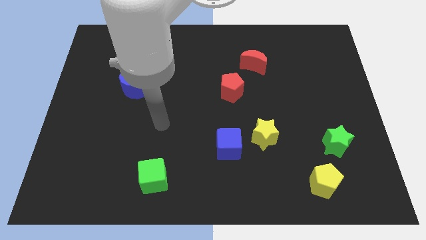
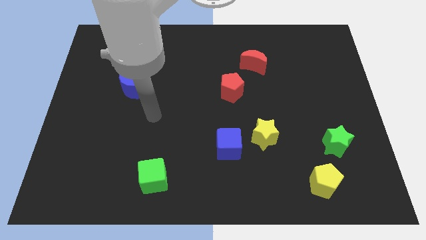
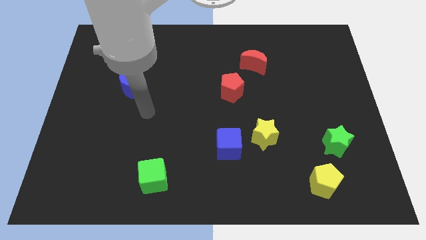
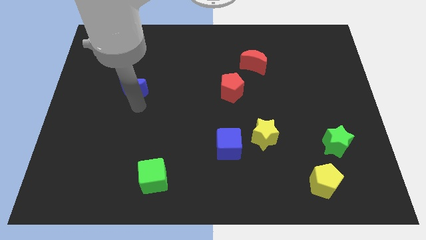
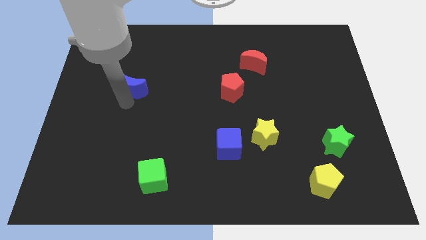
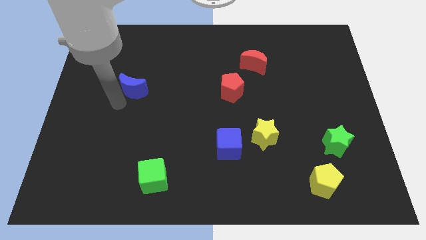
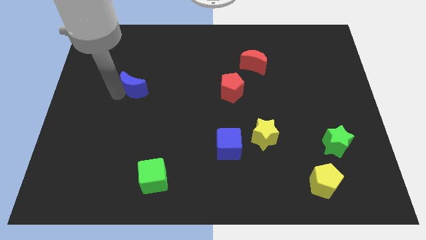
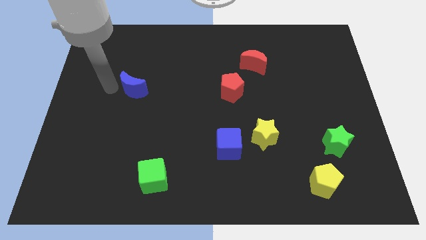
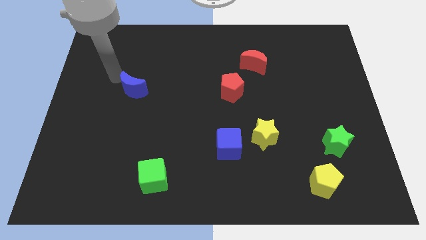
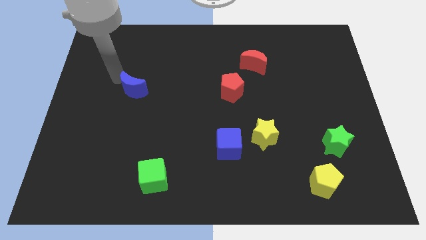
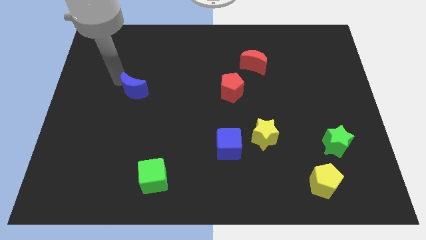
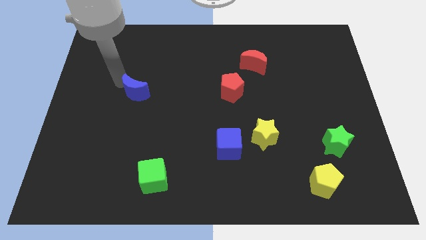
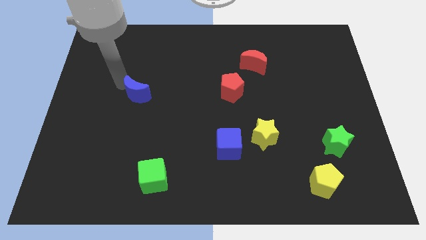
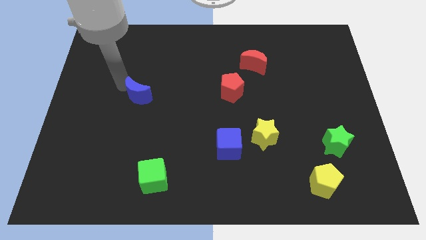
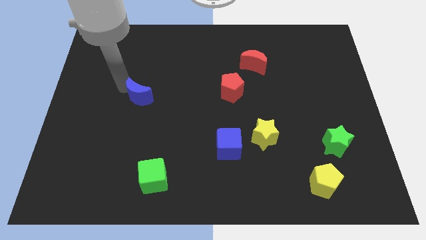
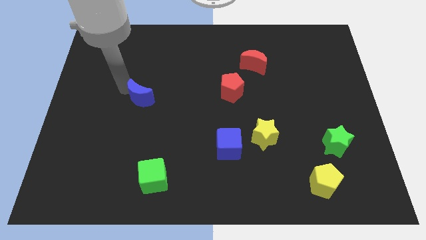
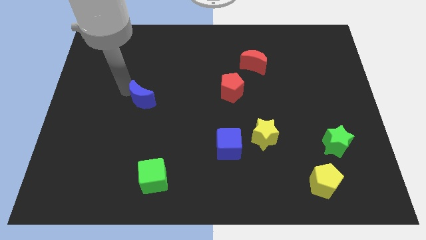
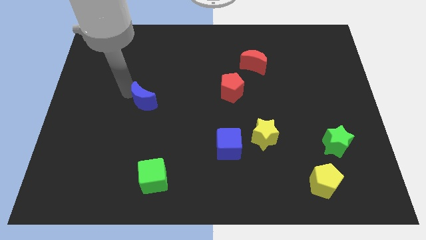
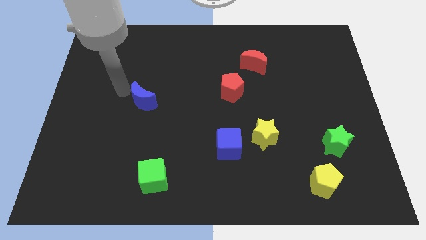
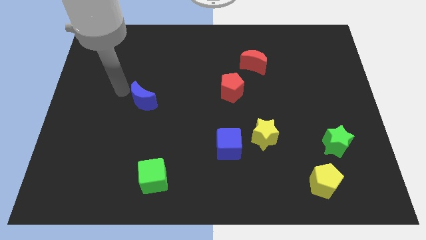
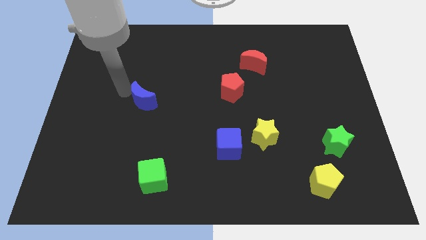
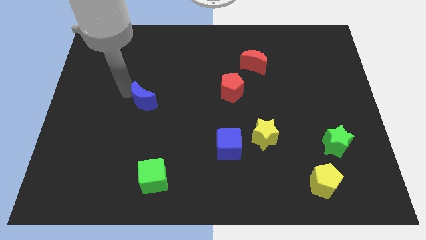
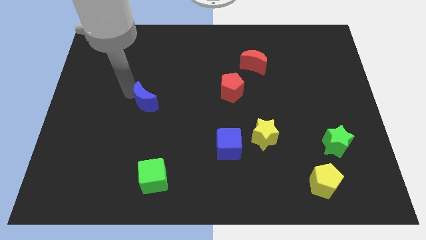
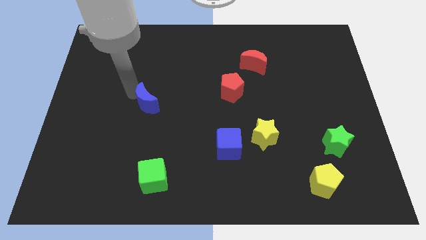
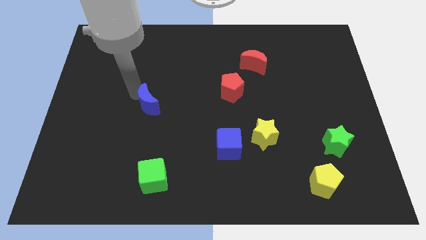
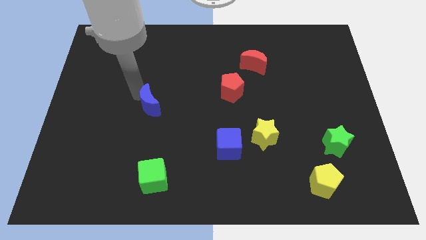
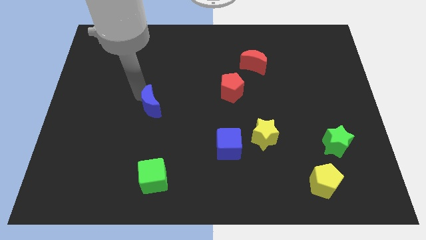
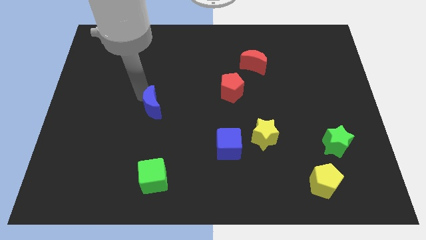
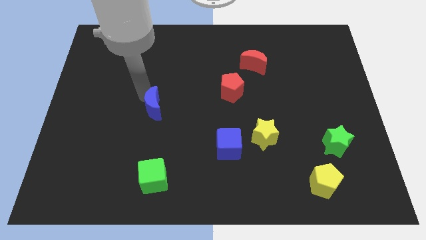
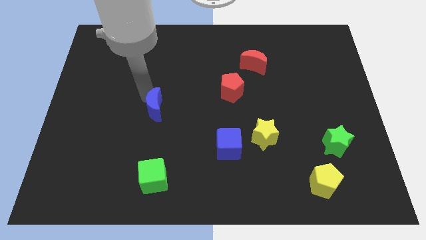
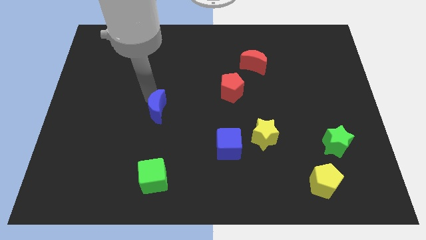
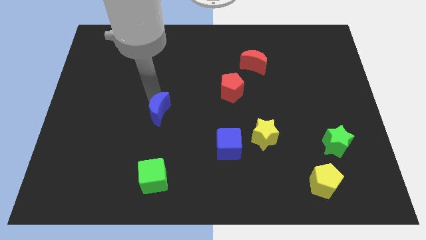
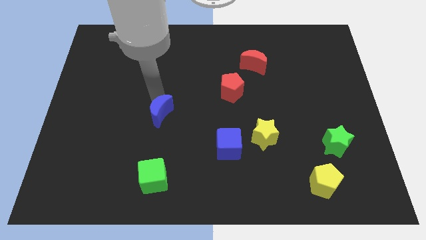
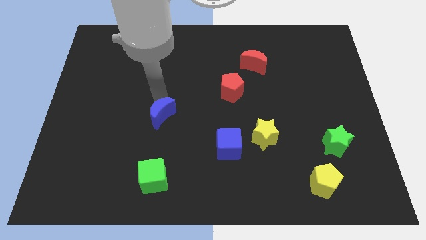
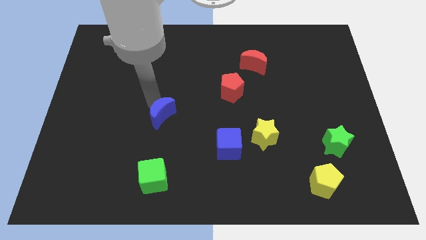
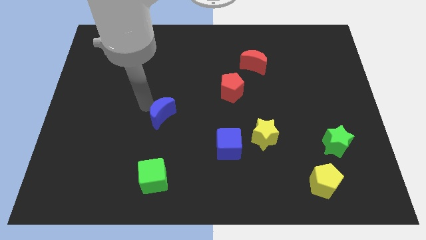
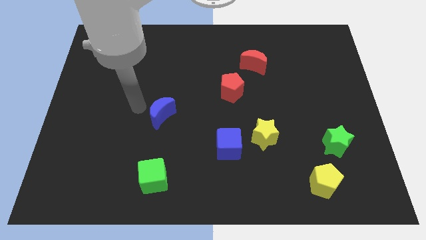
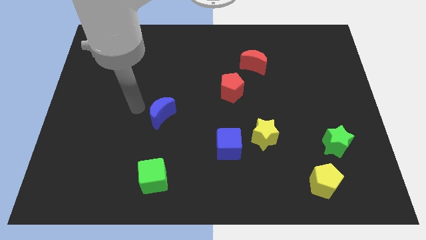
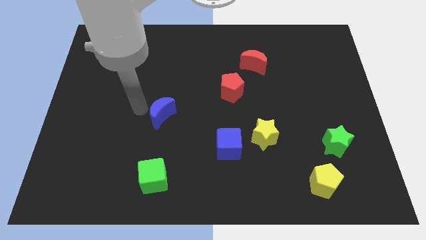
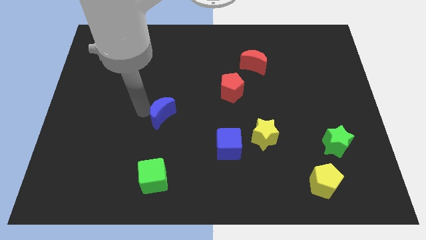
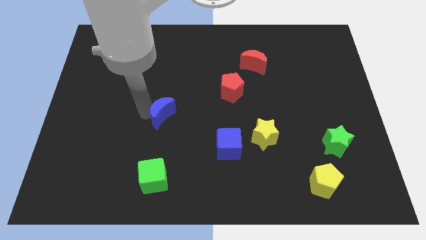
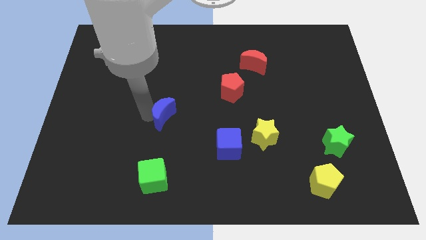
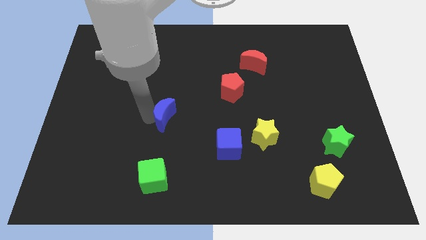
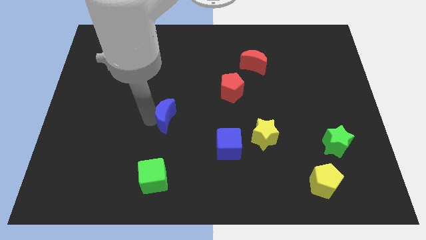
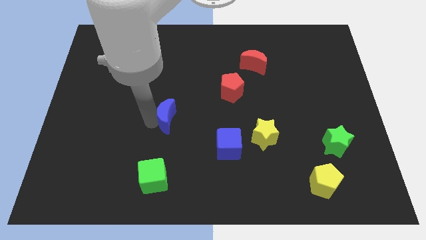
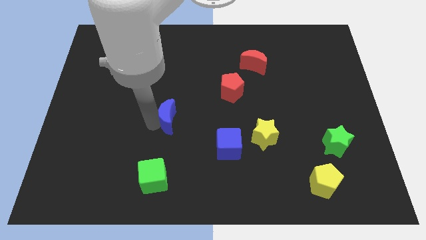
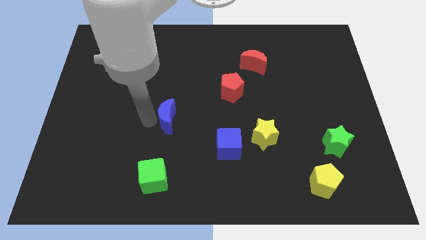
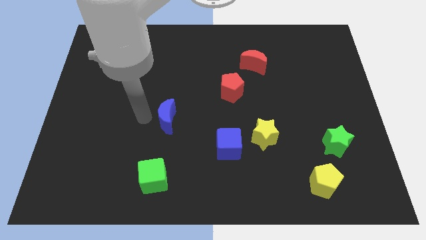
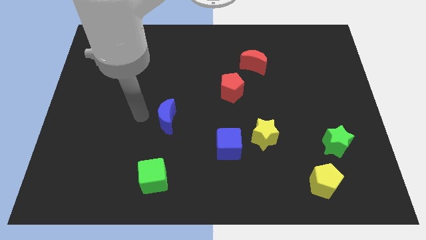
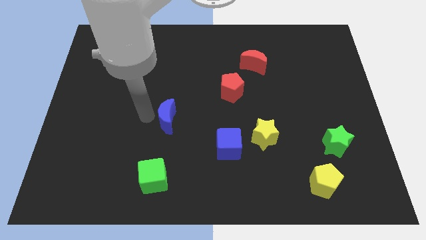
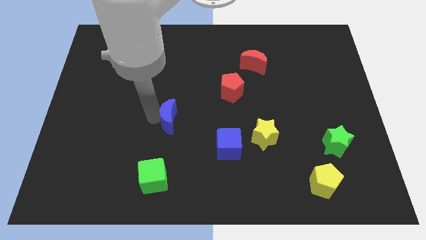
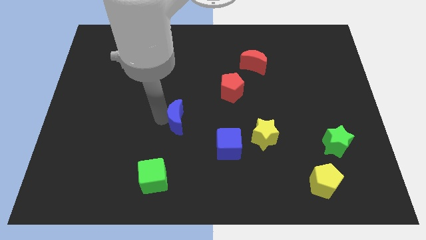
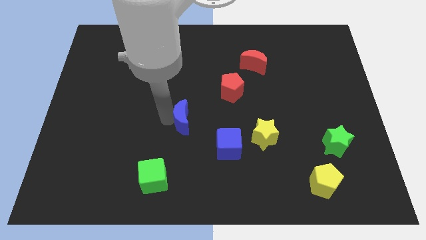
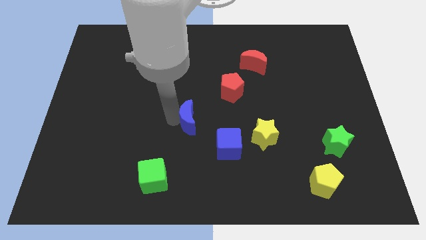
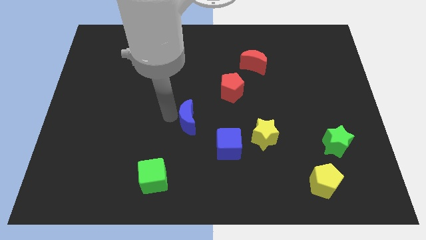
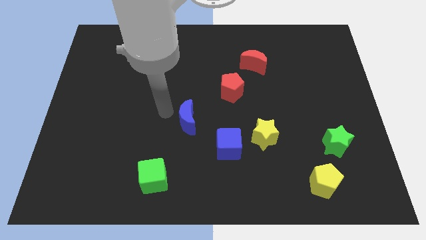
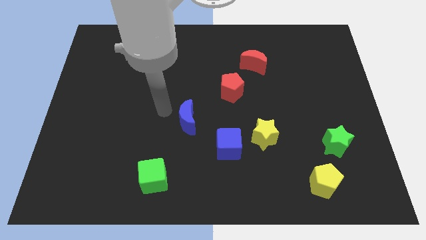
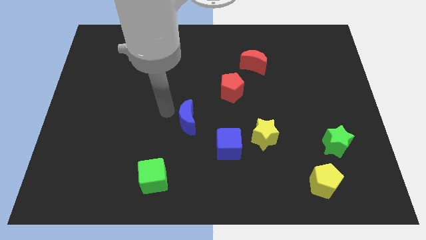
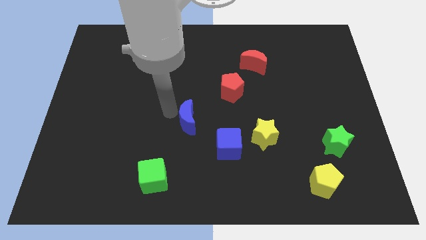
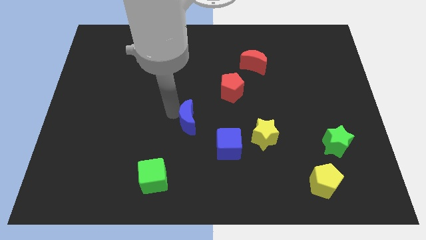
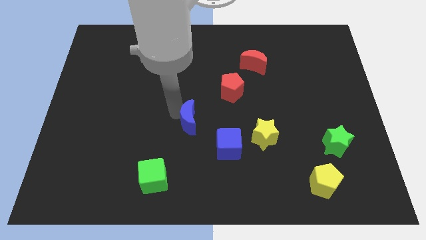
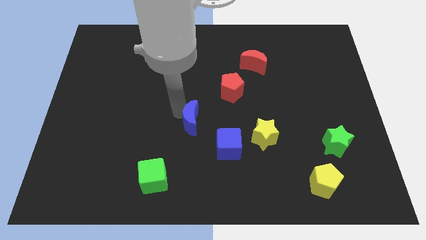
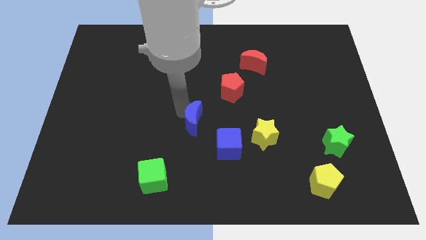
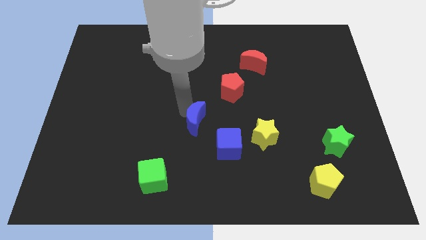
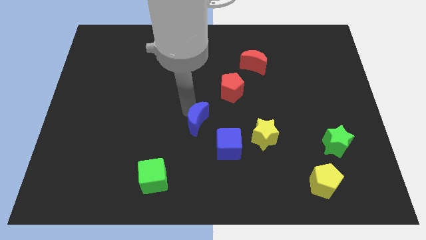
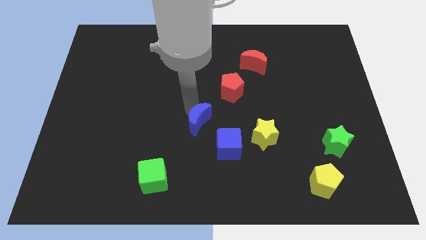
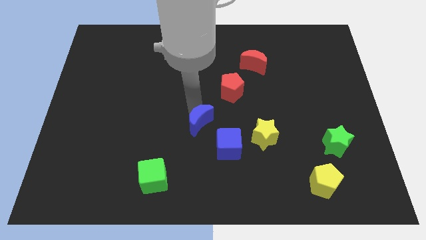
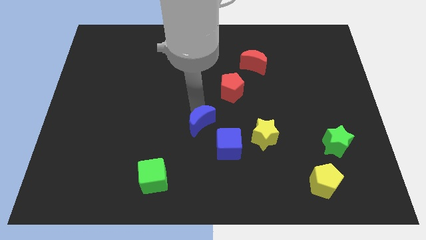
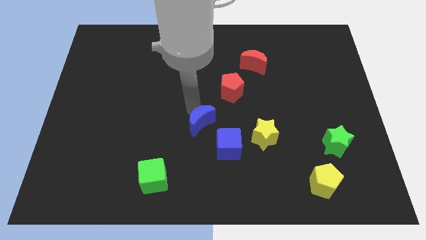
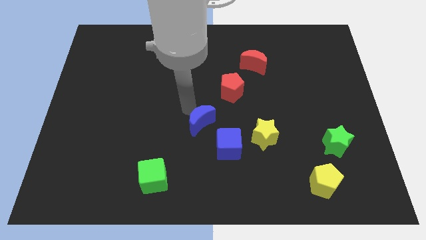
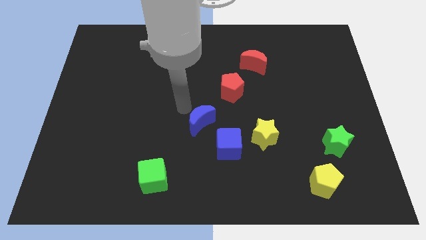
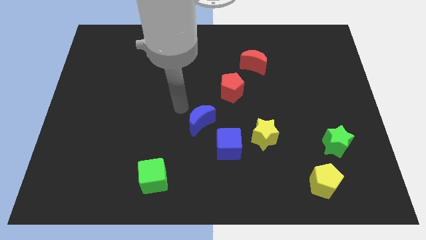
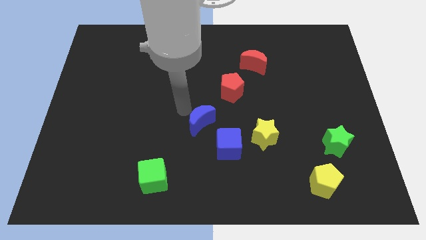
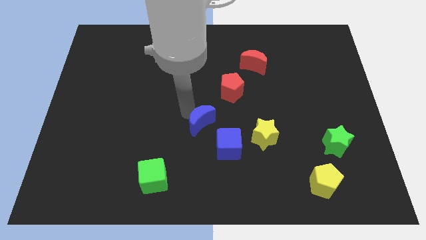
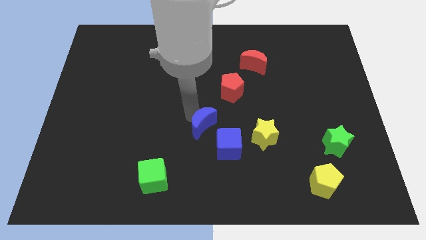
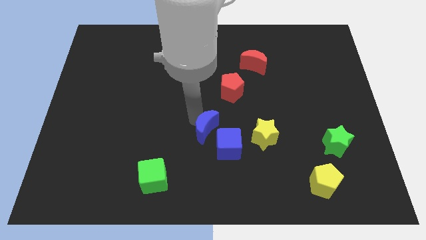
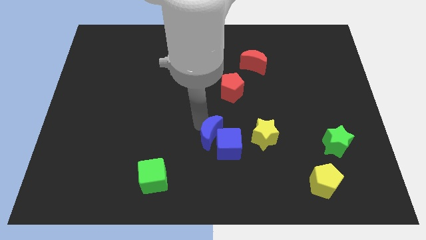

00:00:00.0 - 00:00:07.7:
put the blue moon close to the blue cube

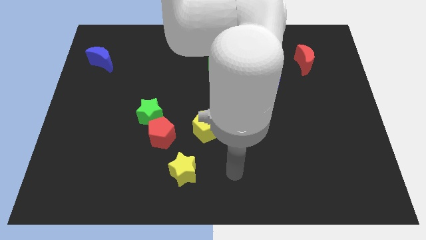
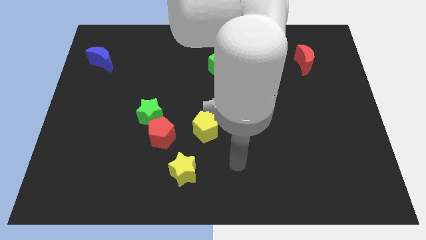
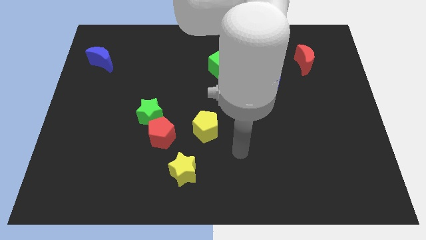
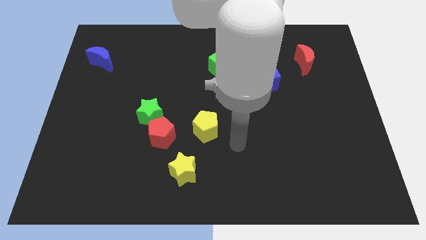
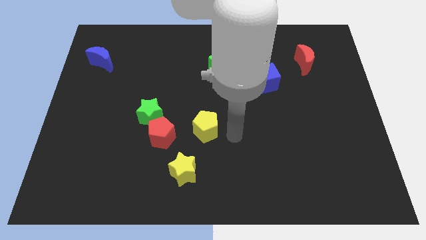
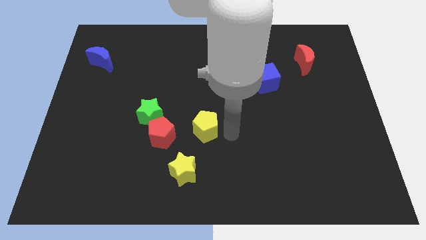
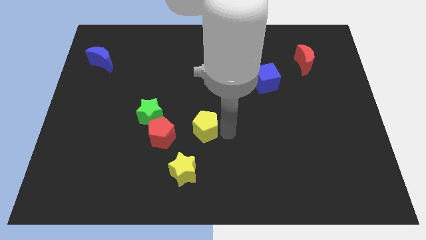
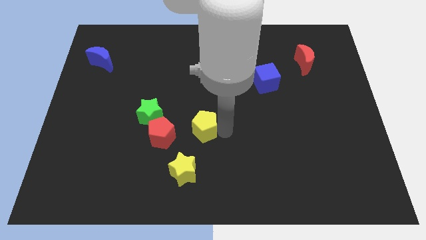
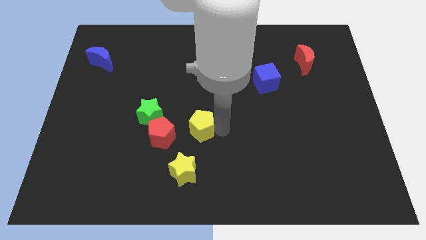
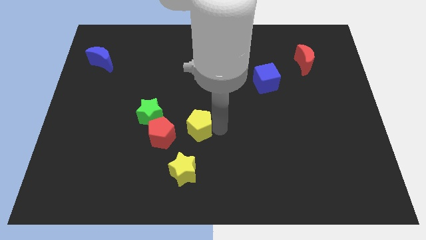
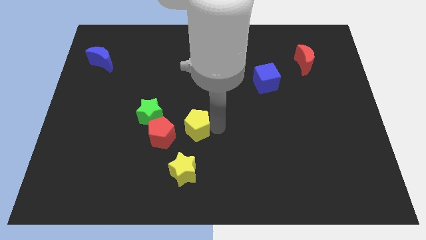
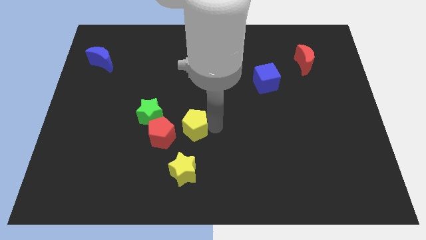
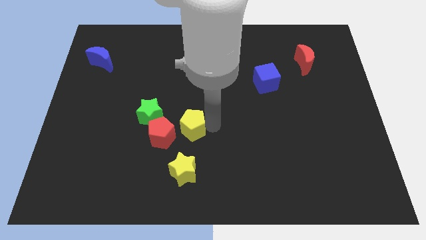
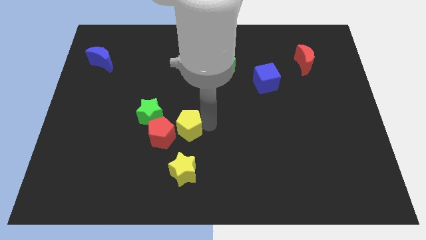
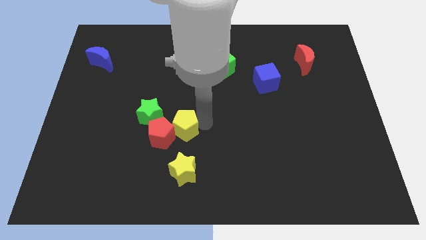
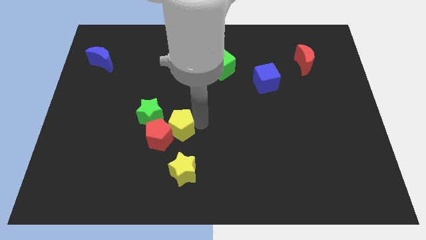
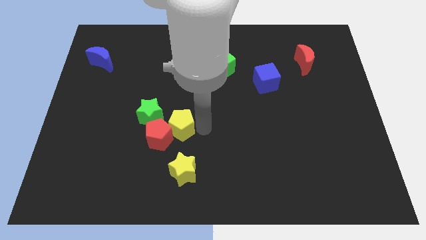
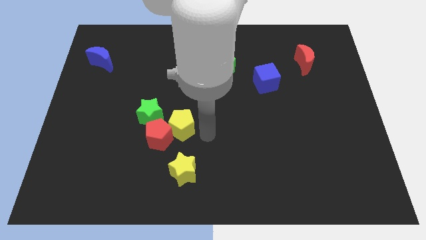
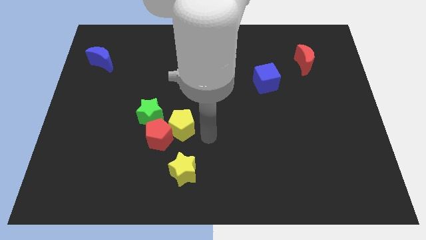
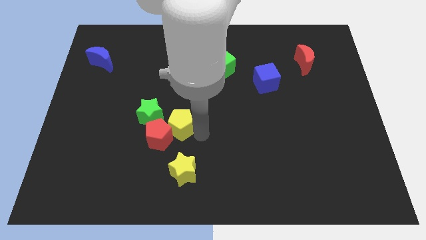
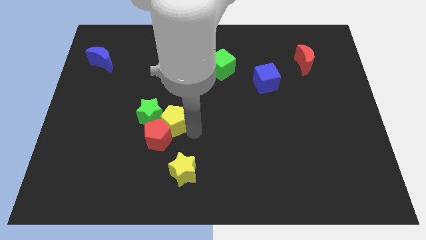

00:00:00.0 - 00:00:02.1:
move the yellow pentagon to the green star
